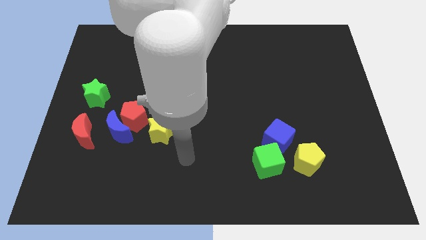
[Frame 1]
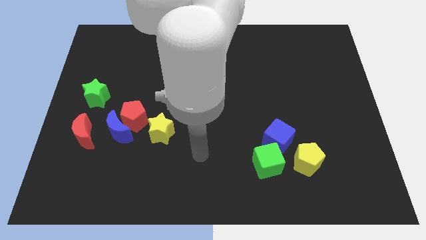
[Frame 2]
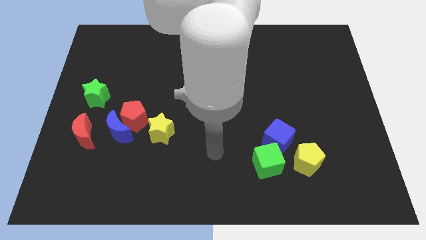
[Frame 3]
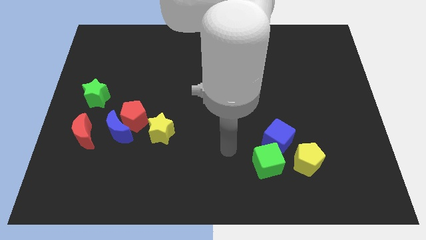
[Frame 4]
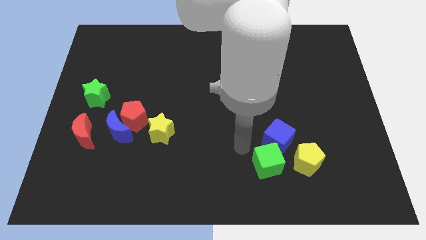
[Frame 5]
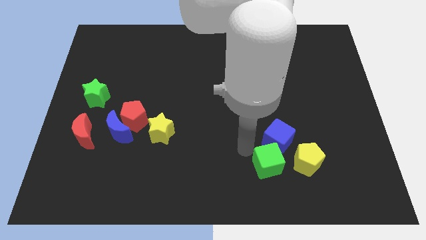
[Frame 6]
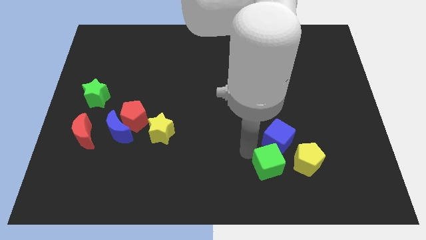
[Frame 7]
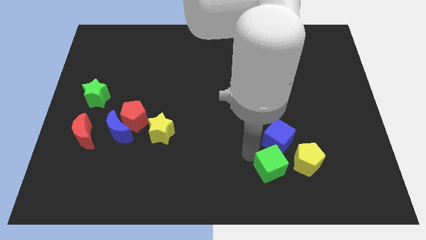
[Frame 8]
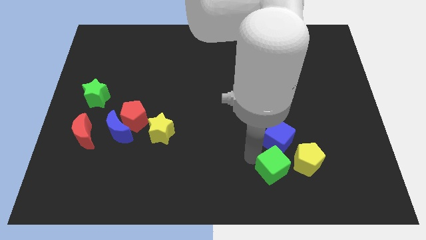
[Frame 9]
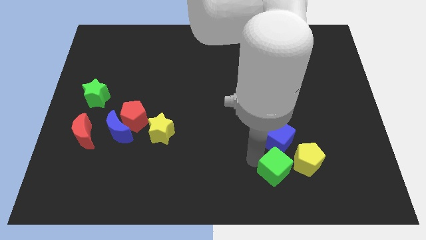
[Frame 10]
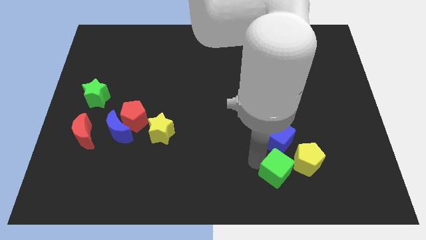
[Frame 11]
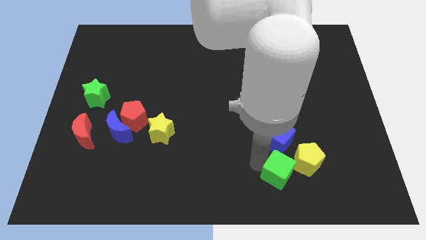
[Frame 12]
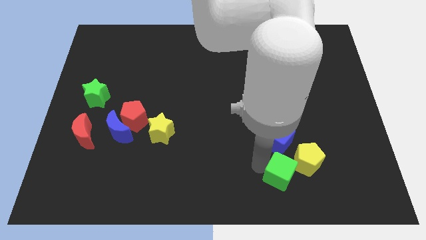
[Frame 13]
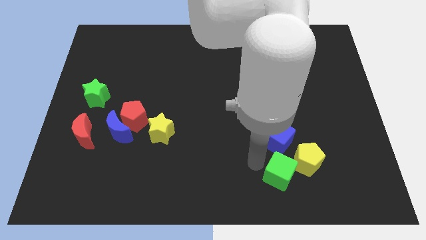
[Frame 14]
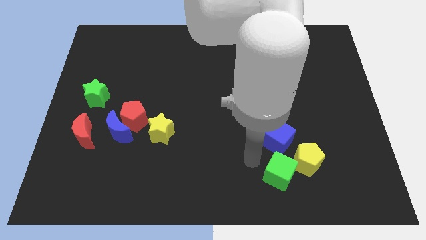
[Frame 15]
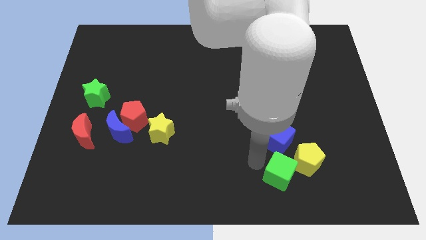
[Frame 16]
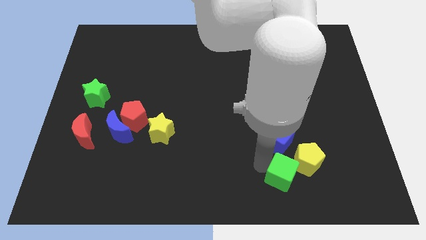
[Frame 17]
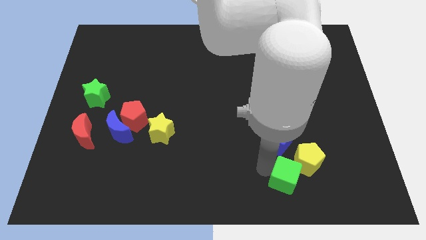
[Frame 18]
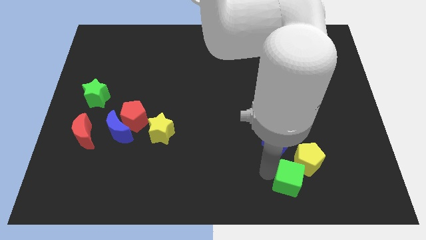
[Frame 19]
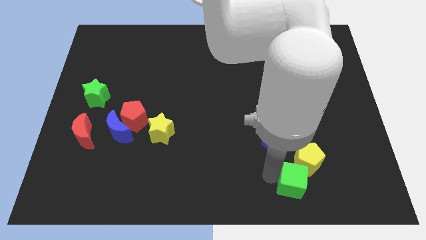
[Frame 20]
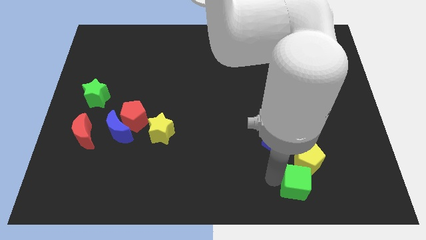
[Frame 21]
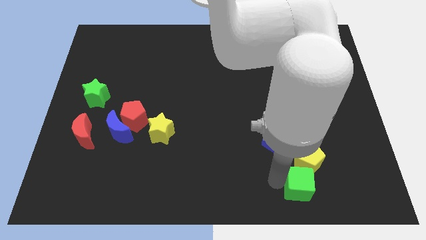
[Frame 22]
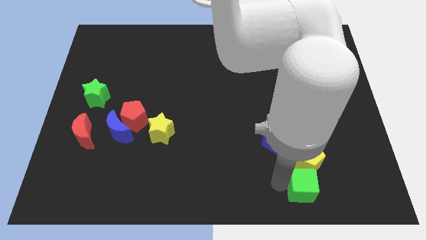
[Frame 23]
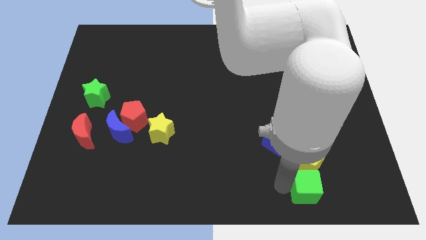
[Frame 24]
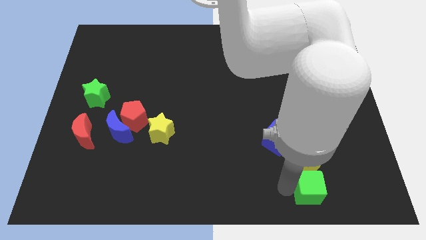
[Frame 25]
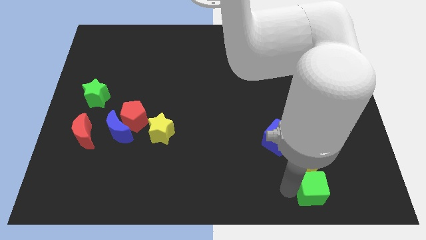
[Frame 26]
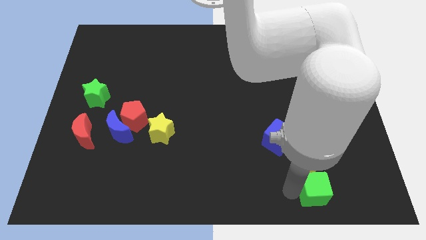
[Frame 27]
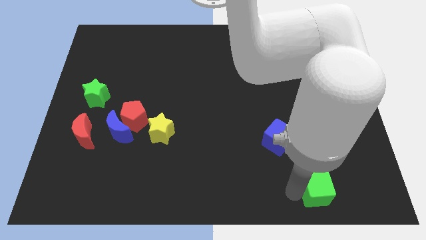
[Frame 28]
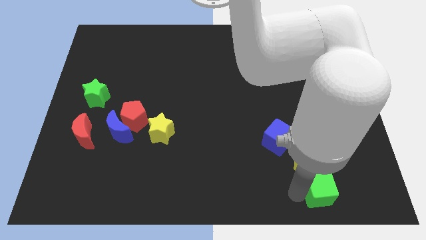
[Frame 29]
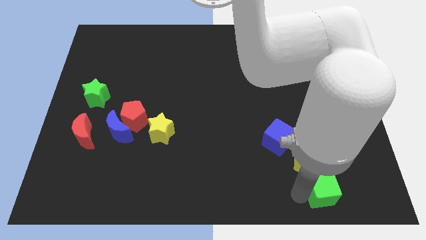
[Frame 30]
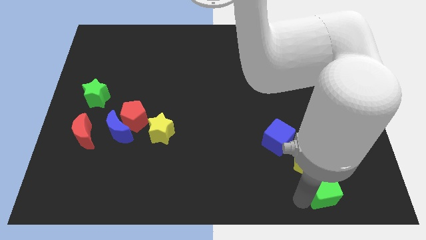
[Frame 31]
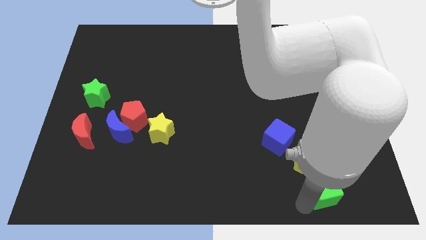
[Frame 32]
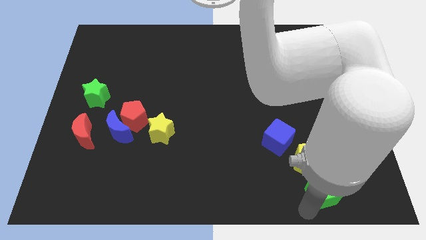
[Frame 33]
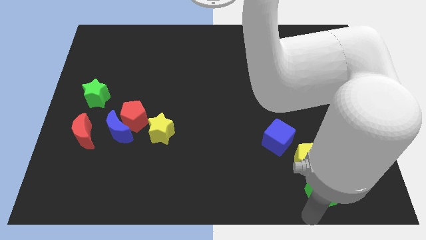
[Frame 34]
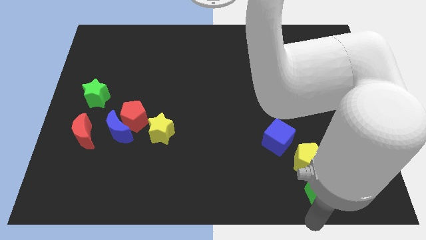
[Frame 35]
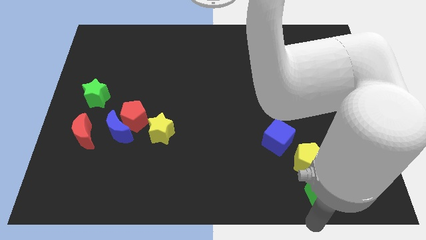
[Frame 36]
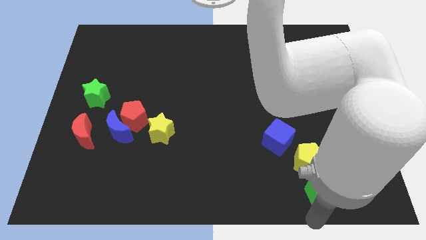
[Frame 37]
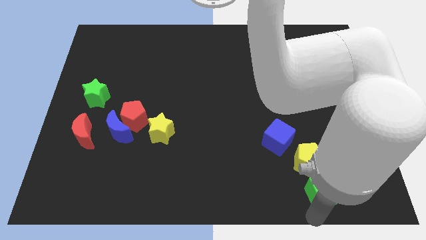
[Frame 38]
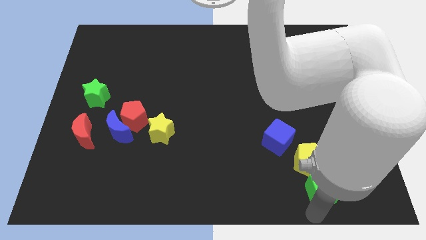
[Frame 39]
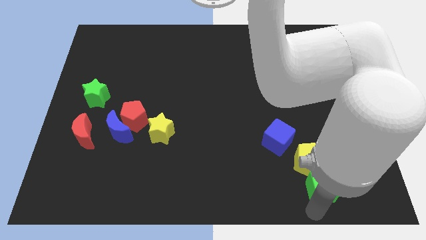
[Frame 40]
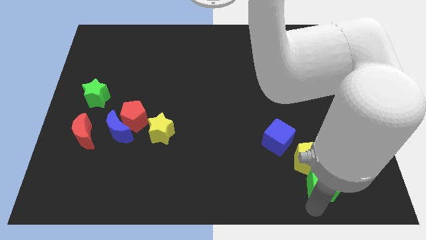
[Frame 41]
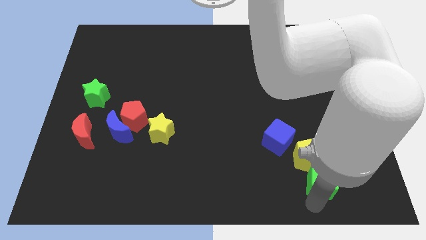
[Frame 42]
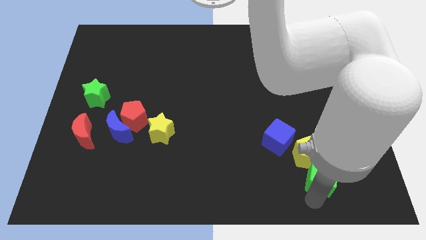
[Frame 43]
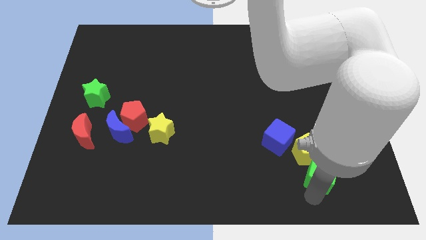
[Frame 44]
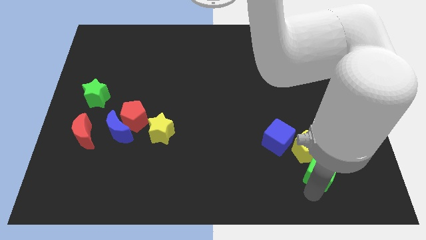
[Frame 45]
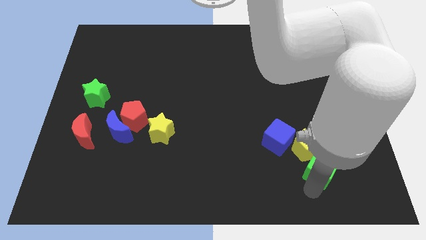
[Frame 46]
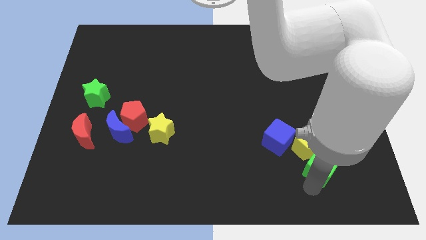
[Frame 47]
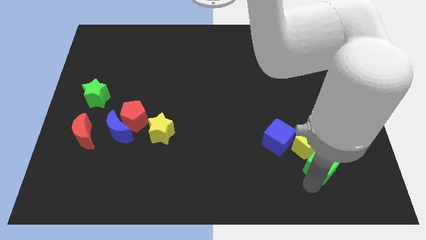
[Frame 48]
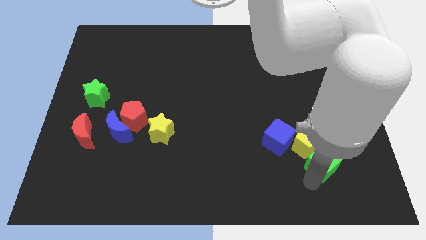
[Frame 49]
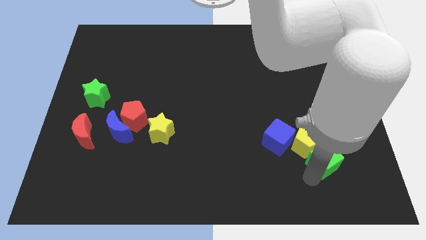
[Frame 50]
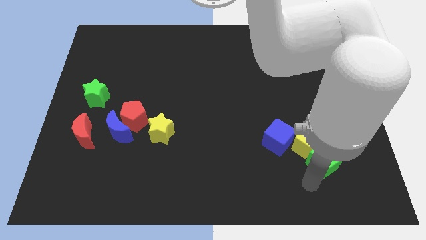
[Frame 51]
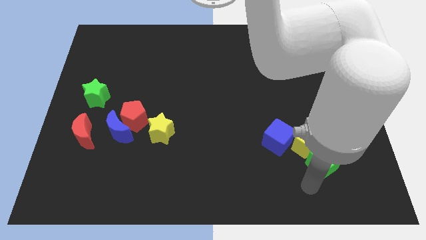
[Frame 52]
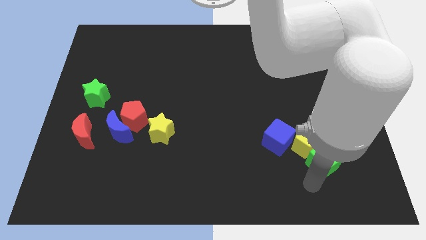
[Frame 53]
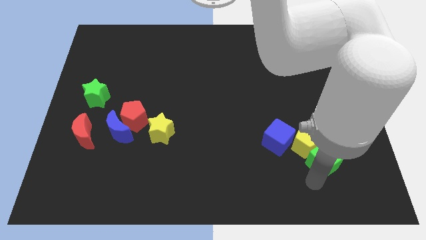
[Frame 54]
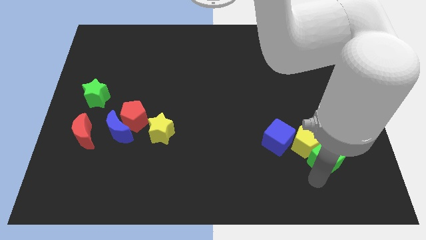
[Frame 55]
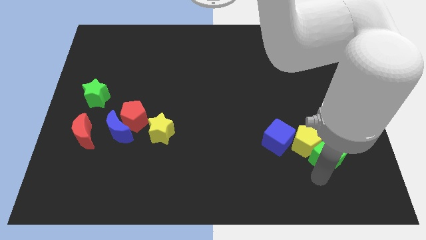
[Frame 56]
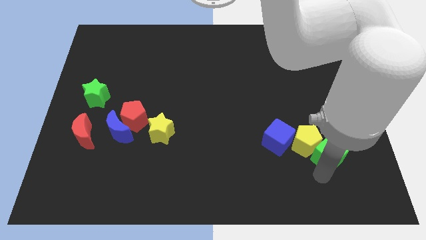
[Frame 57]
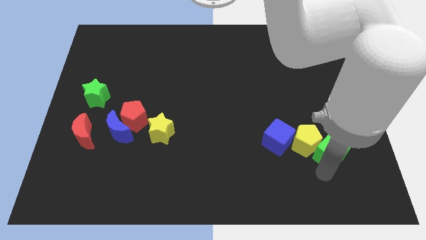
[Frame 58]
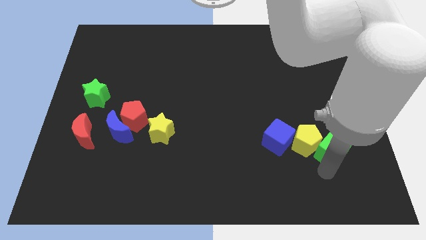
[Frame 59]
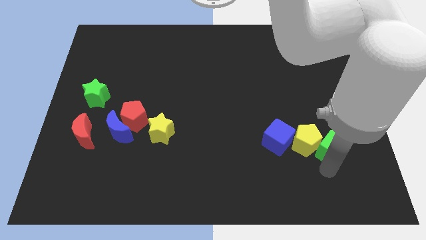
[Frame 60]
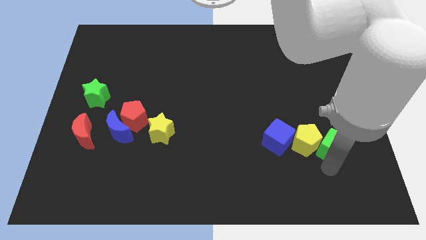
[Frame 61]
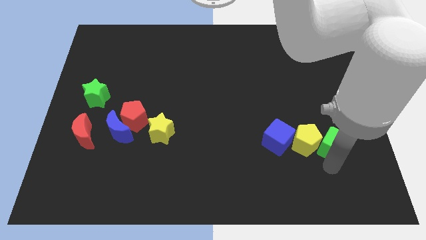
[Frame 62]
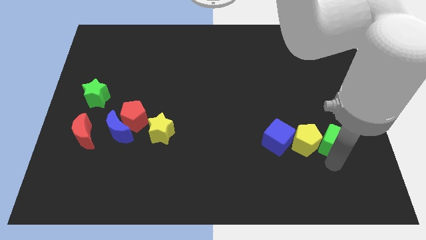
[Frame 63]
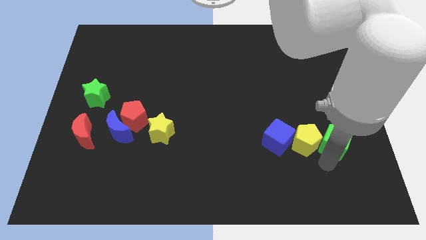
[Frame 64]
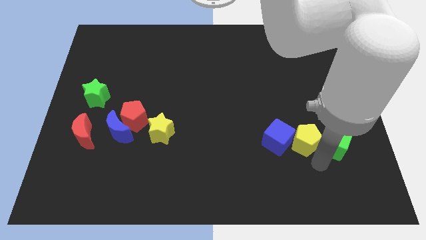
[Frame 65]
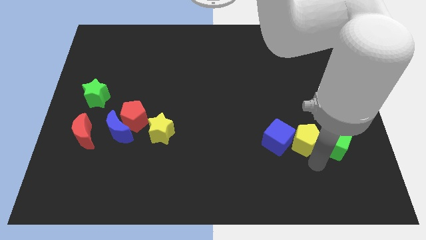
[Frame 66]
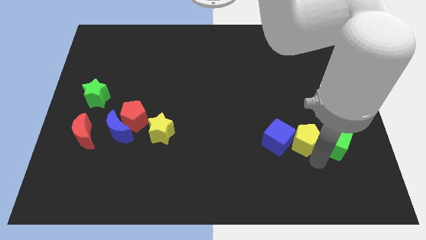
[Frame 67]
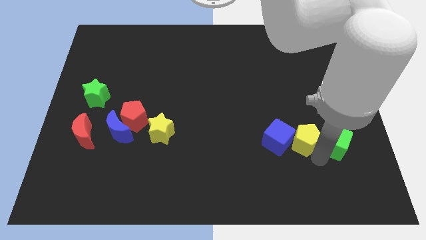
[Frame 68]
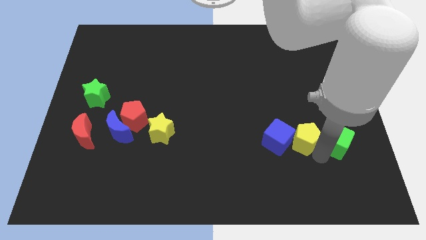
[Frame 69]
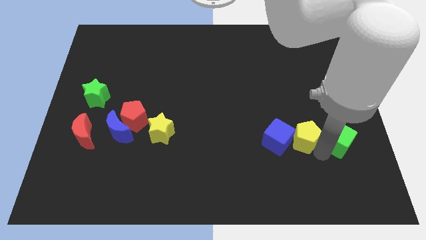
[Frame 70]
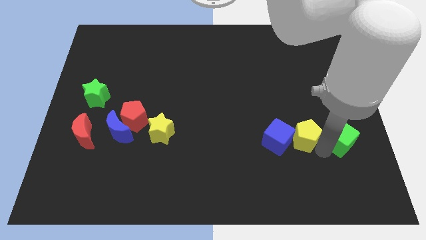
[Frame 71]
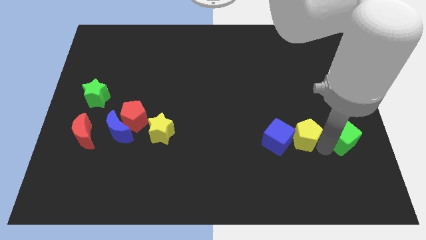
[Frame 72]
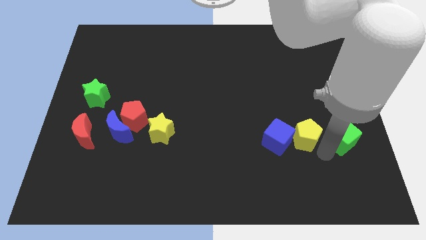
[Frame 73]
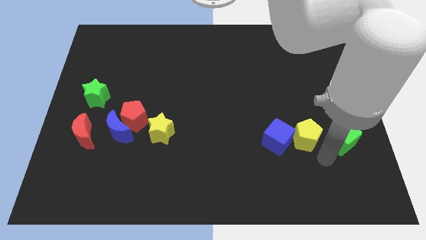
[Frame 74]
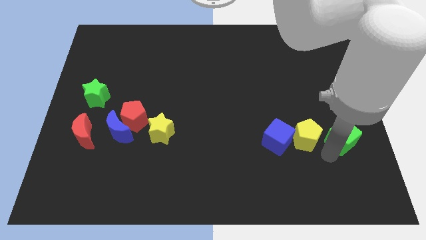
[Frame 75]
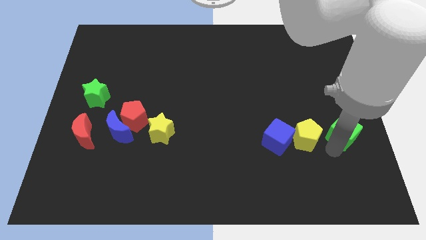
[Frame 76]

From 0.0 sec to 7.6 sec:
put the green cube to the center right
